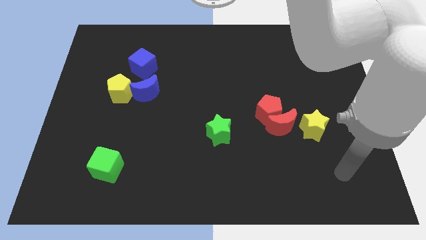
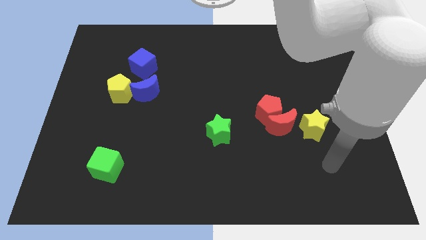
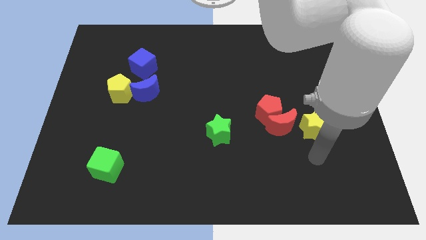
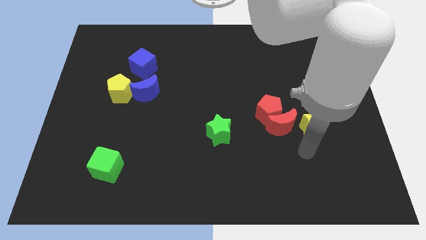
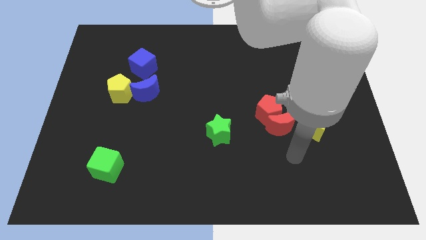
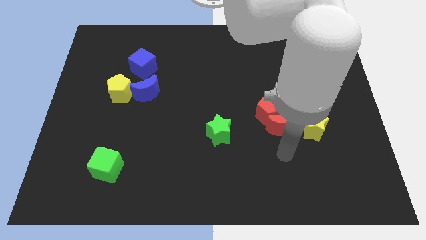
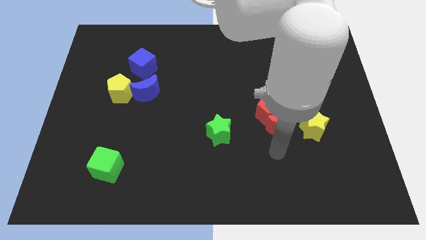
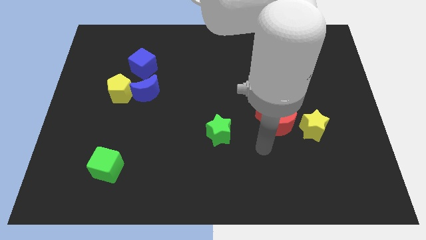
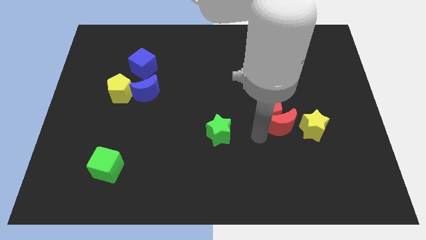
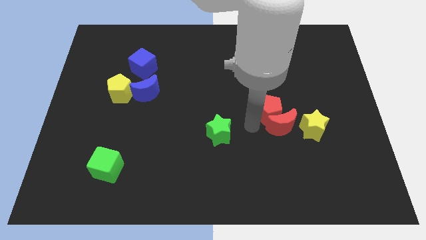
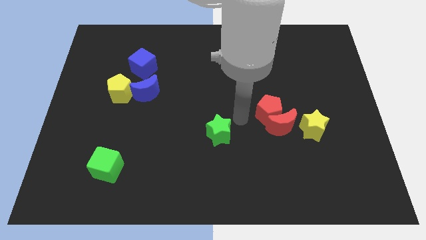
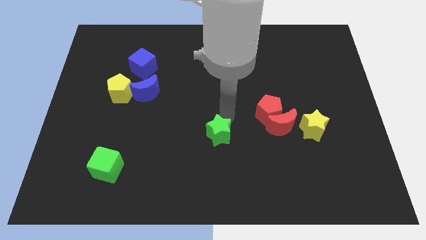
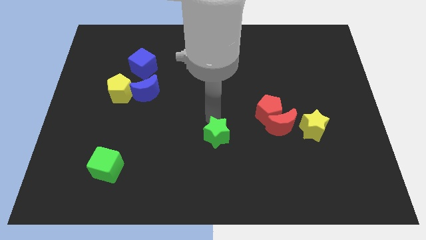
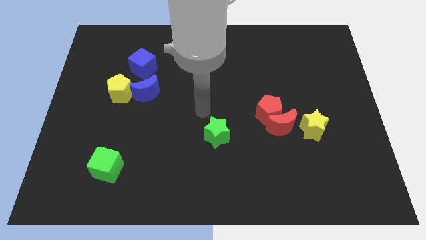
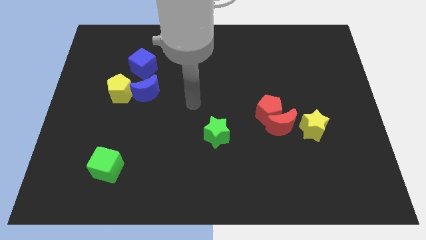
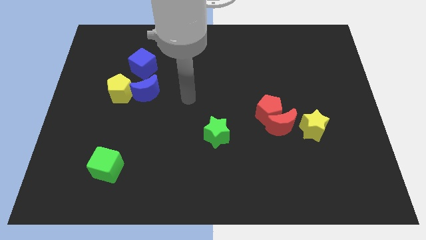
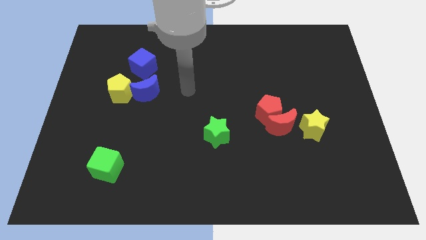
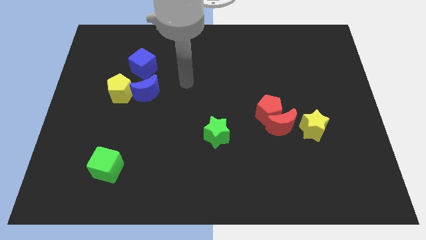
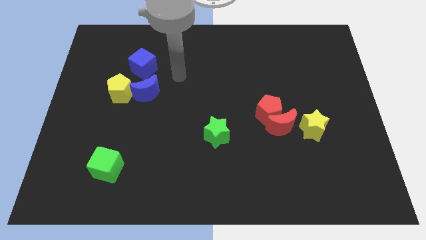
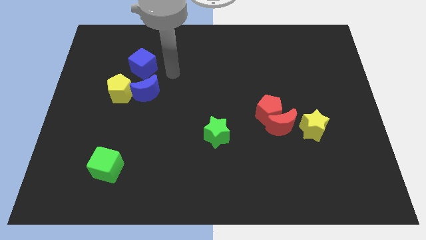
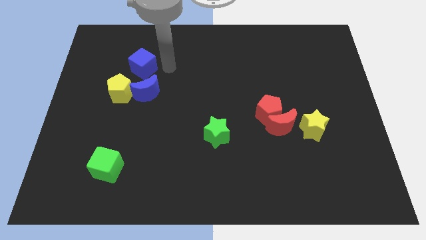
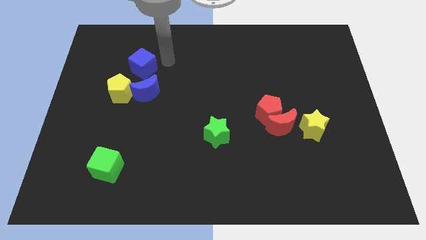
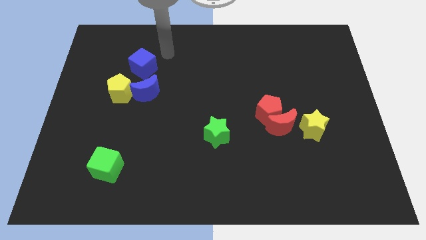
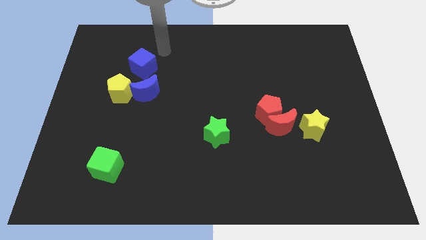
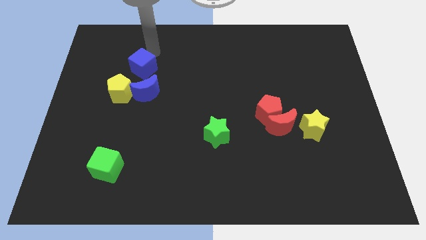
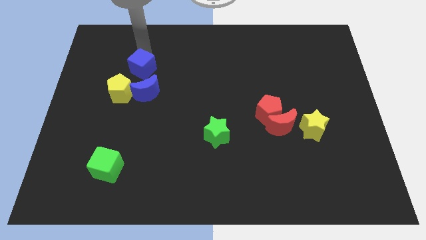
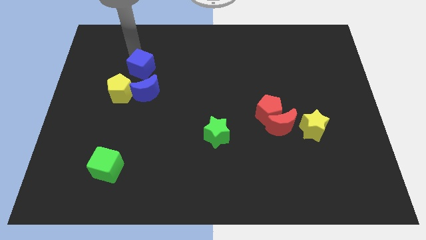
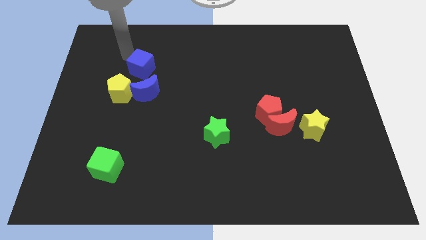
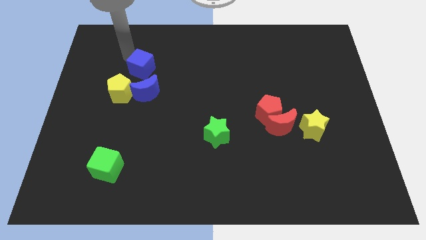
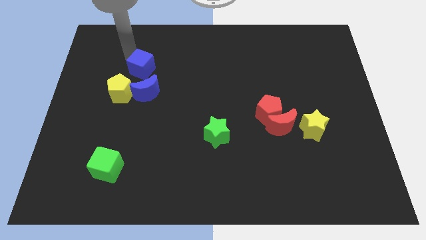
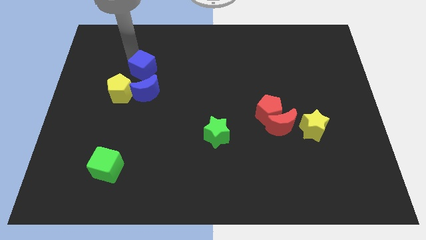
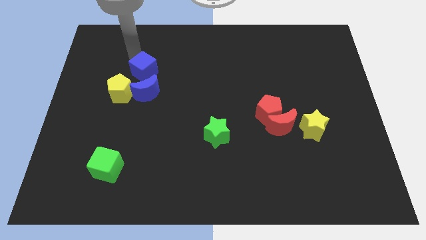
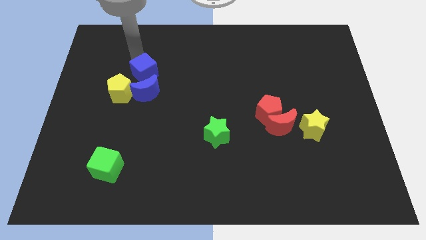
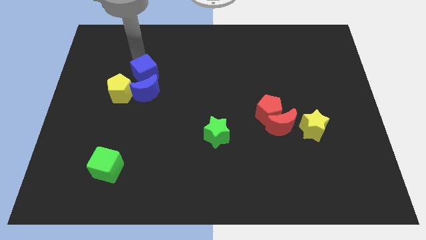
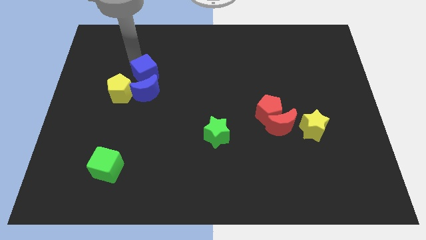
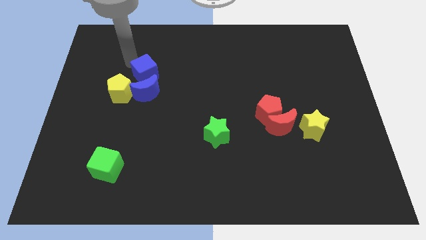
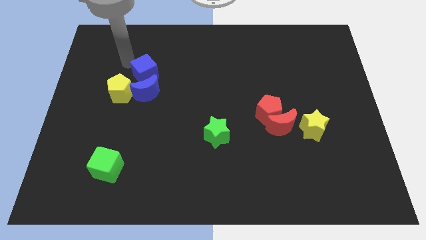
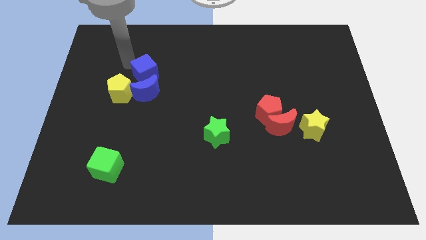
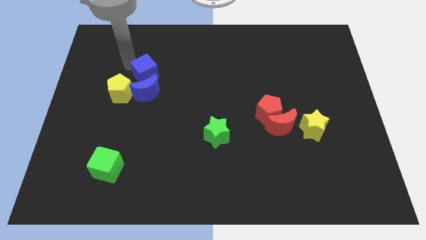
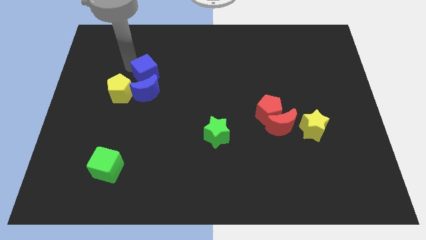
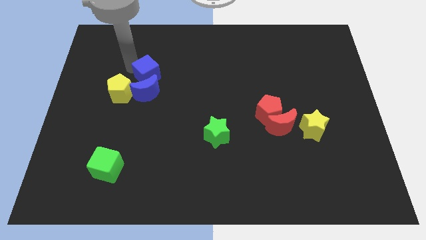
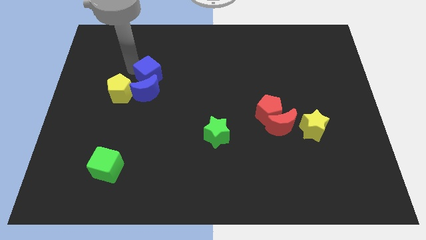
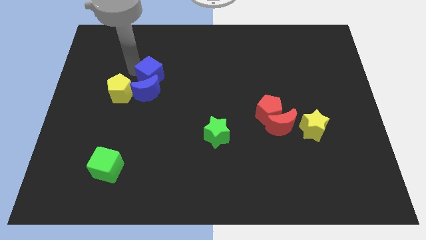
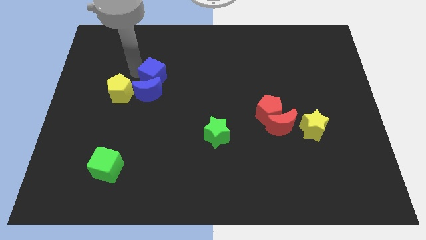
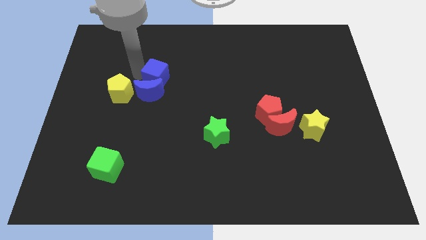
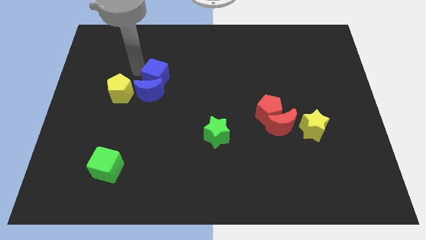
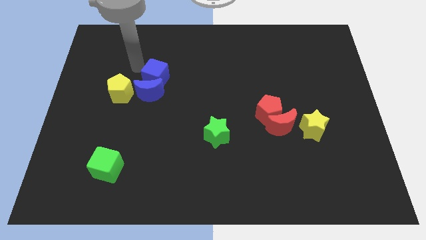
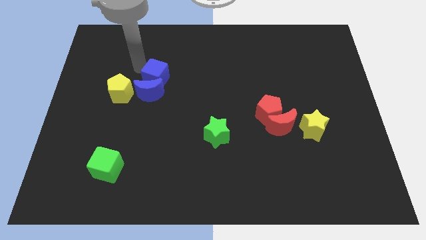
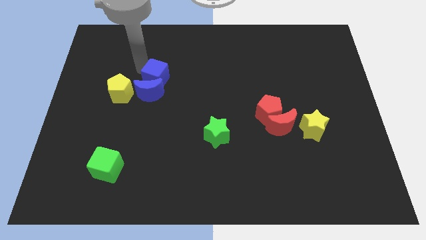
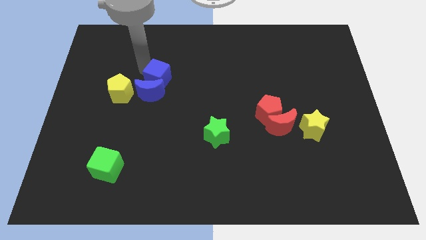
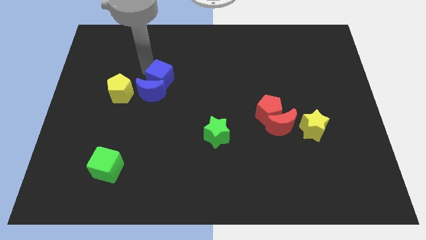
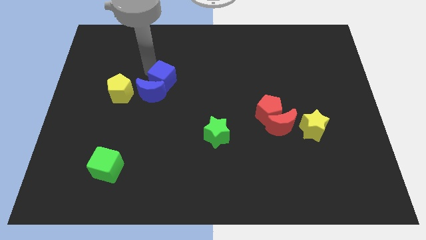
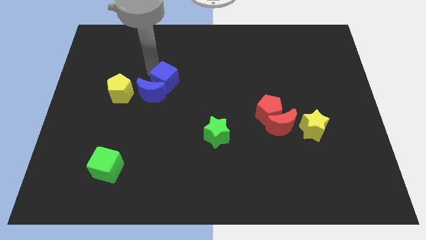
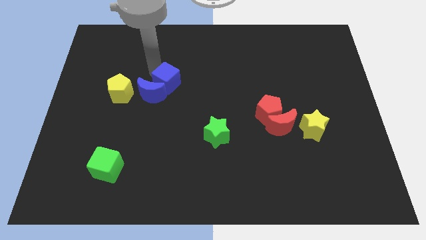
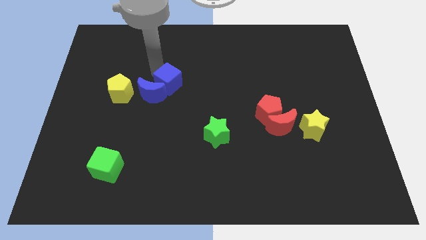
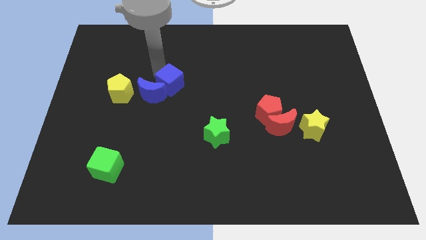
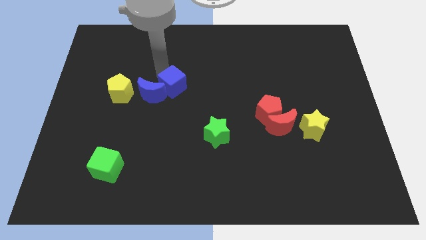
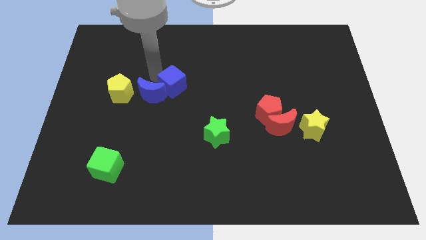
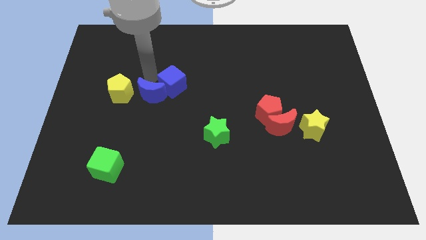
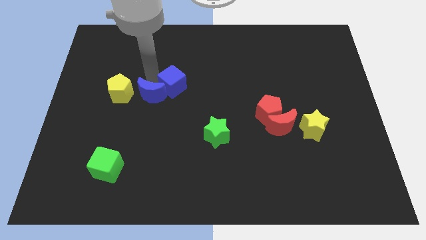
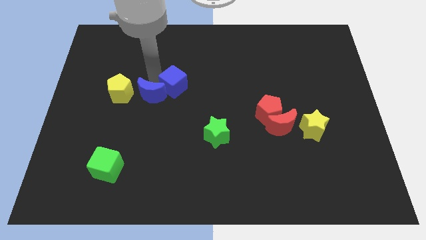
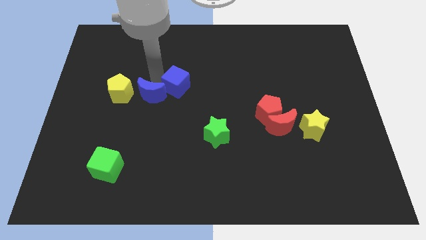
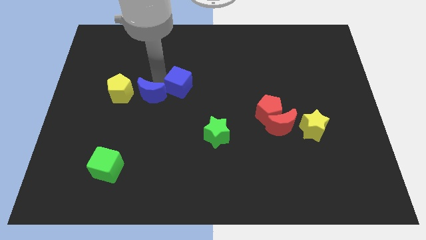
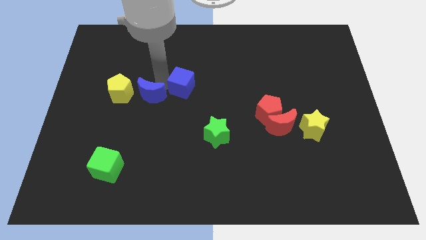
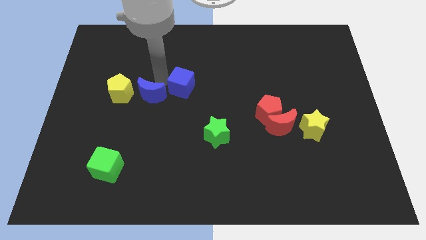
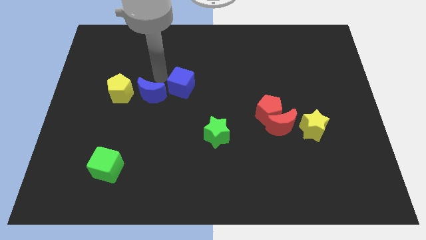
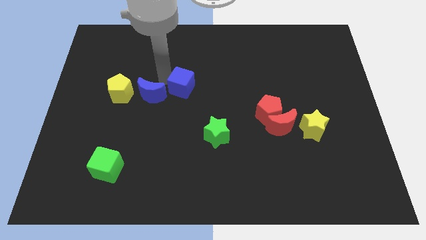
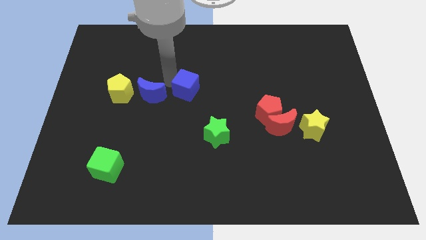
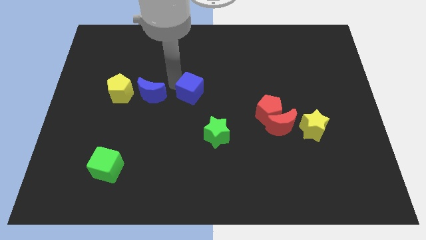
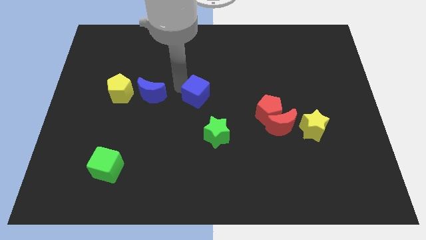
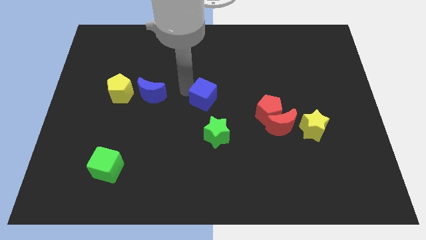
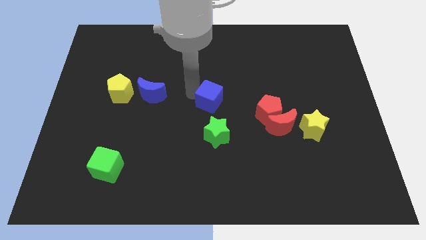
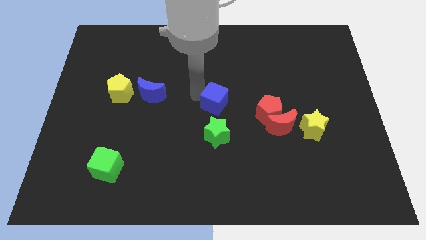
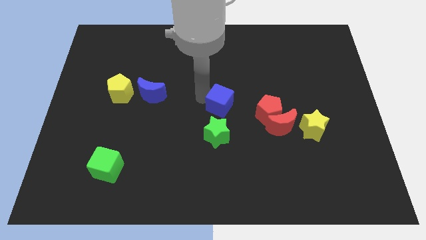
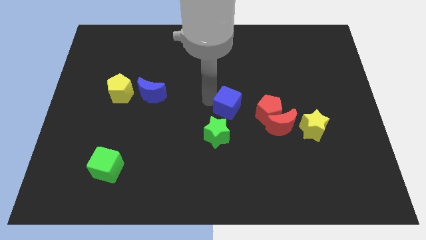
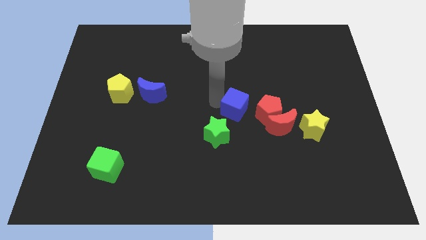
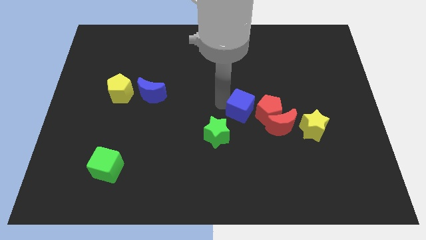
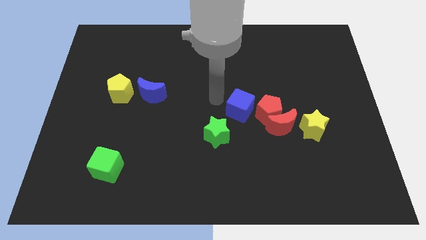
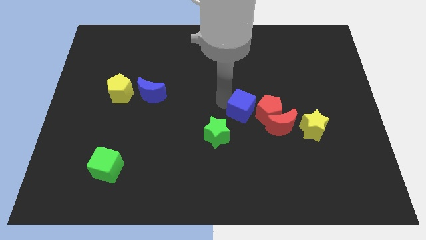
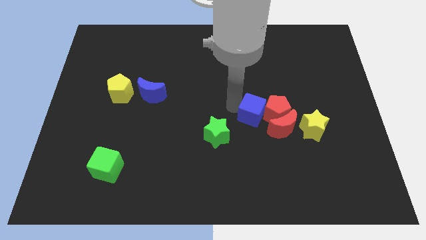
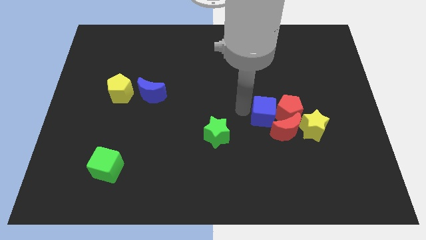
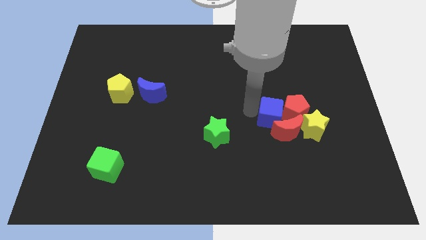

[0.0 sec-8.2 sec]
slide the blue cube close to the red moon
